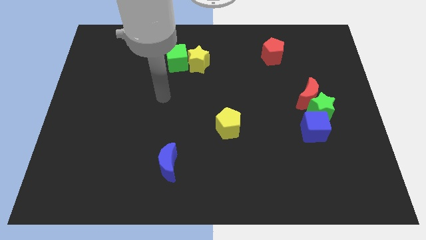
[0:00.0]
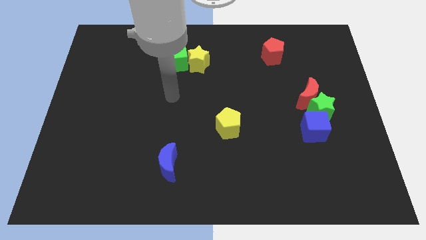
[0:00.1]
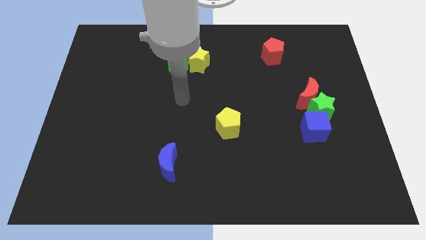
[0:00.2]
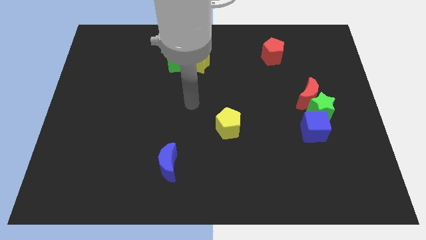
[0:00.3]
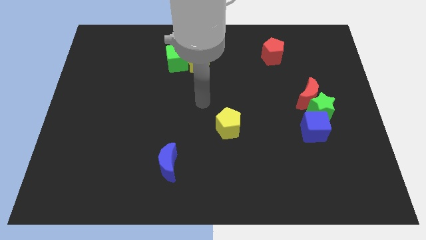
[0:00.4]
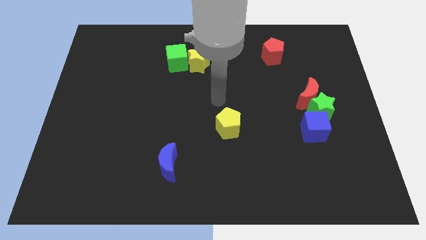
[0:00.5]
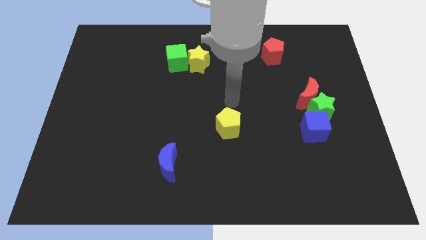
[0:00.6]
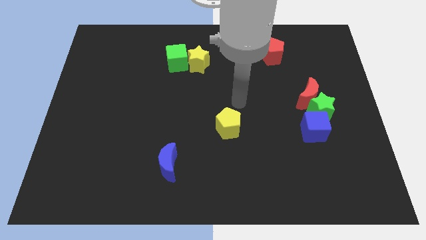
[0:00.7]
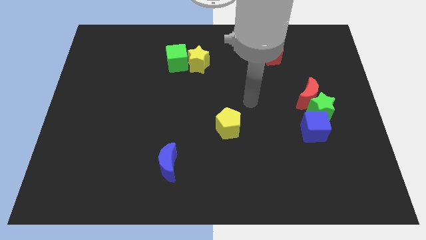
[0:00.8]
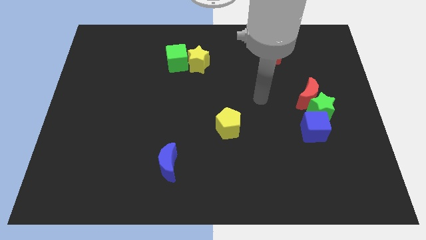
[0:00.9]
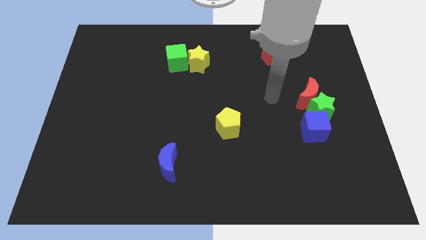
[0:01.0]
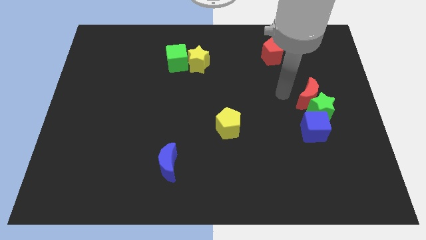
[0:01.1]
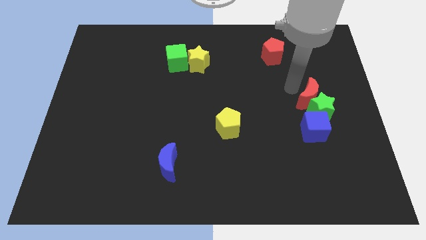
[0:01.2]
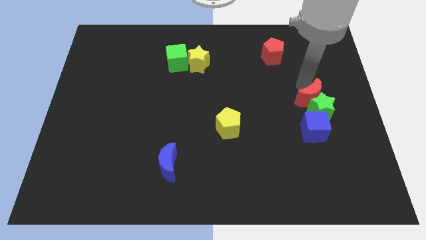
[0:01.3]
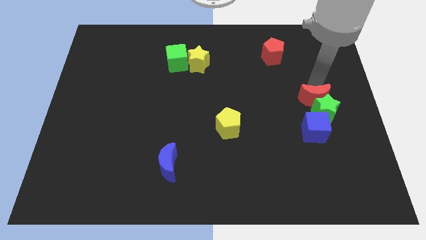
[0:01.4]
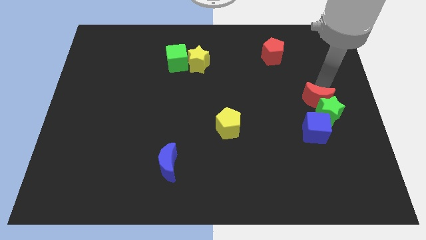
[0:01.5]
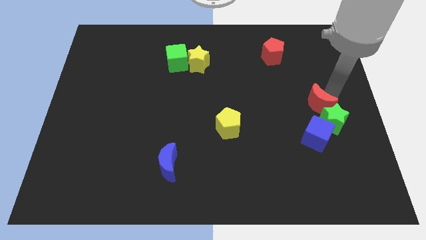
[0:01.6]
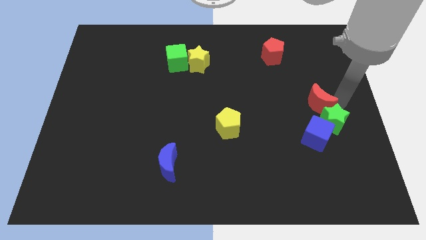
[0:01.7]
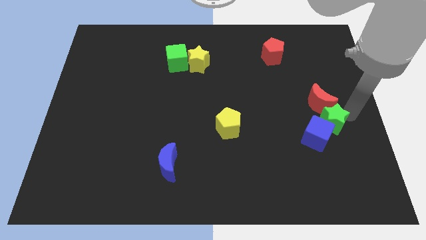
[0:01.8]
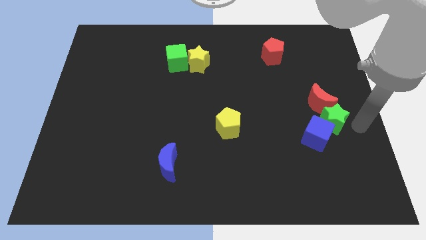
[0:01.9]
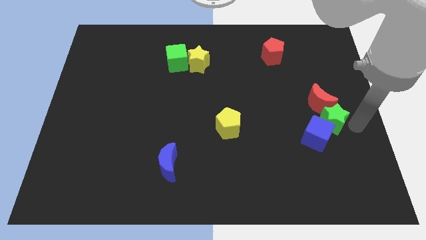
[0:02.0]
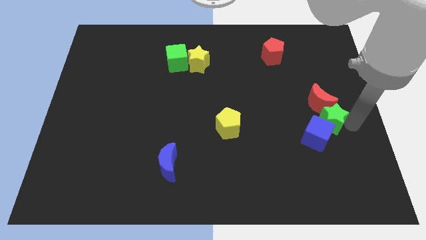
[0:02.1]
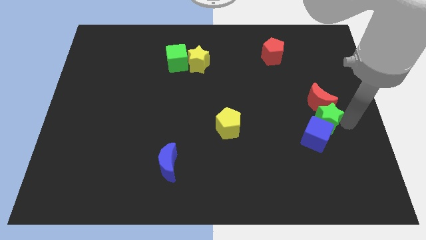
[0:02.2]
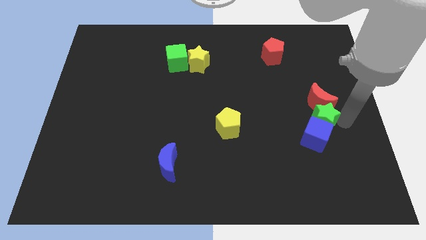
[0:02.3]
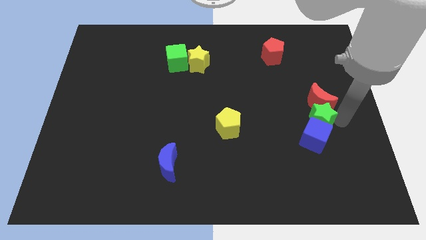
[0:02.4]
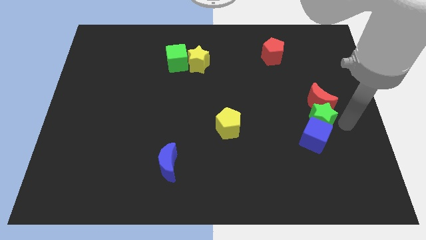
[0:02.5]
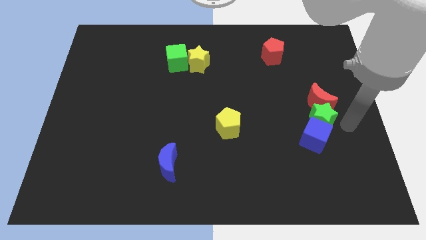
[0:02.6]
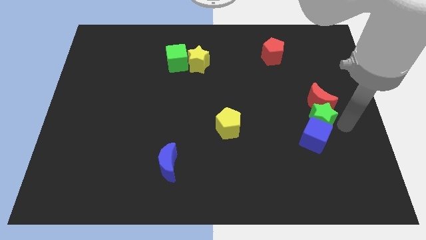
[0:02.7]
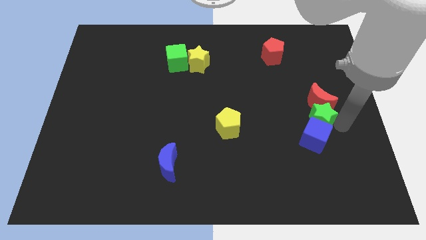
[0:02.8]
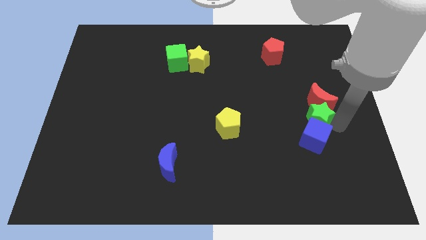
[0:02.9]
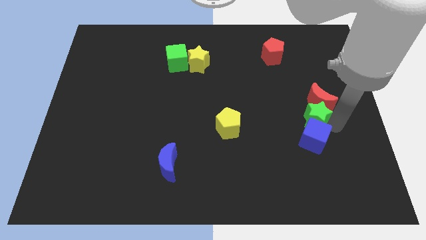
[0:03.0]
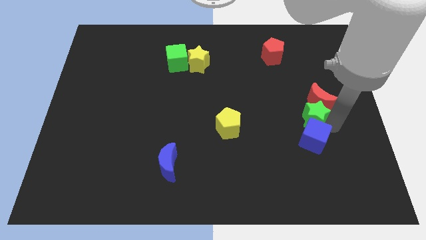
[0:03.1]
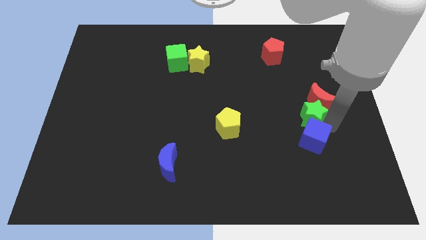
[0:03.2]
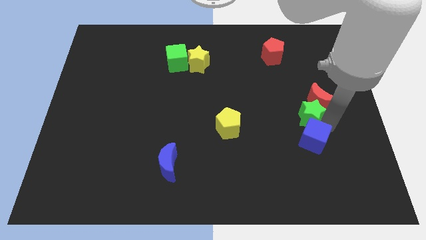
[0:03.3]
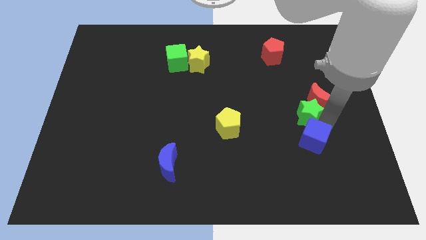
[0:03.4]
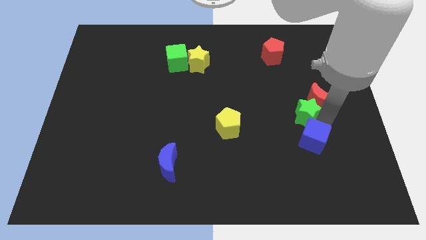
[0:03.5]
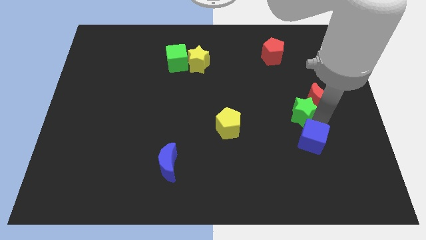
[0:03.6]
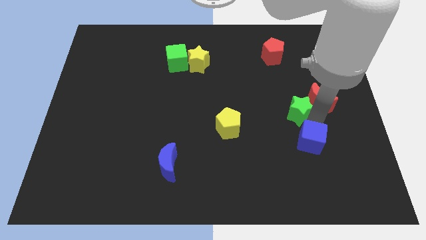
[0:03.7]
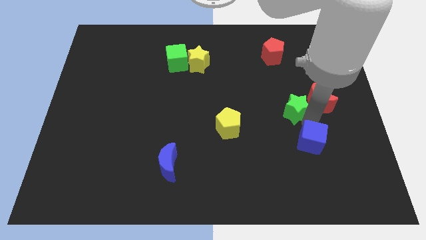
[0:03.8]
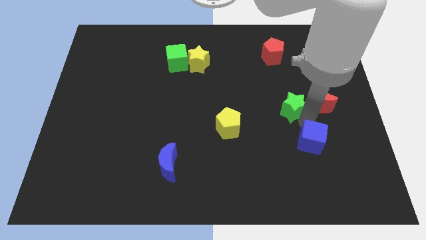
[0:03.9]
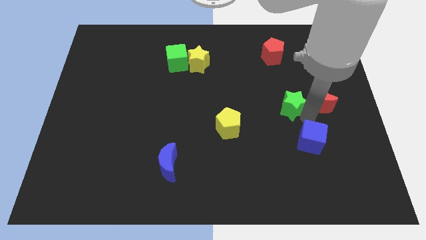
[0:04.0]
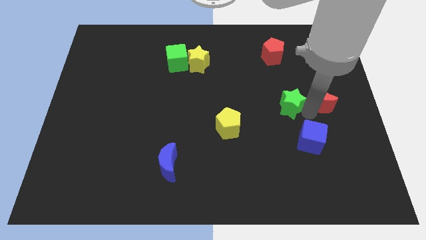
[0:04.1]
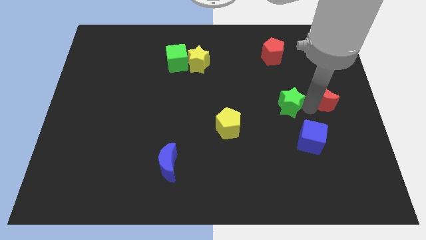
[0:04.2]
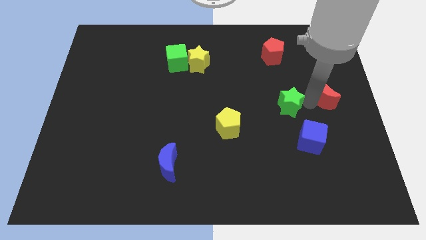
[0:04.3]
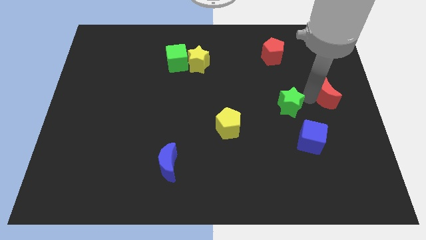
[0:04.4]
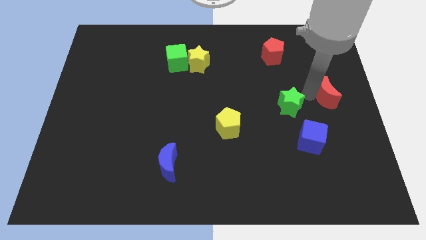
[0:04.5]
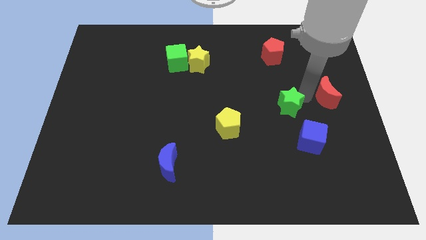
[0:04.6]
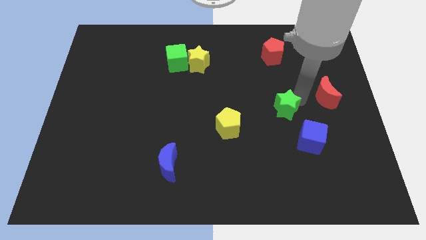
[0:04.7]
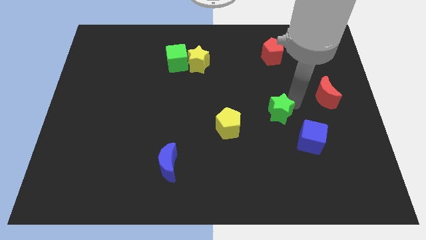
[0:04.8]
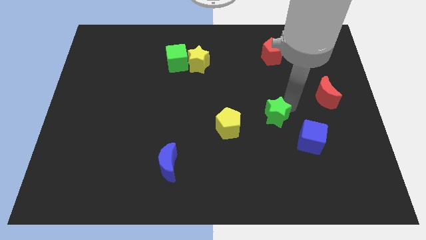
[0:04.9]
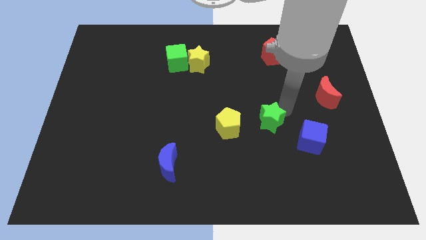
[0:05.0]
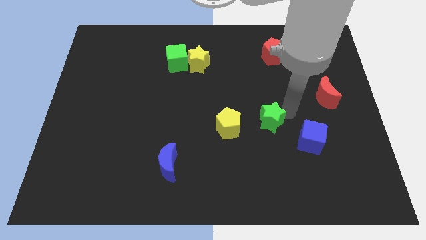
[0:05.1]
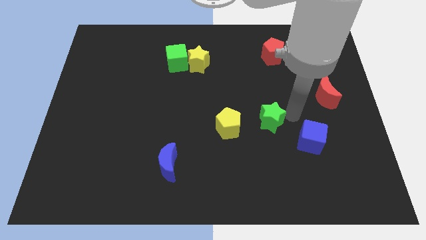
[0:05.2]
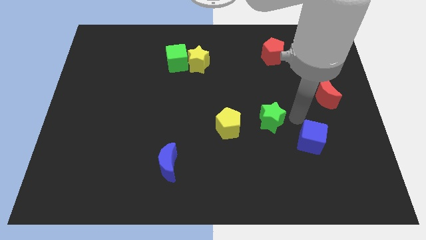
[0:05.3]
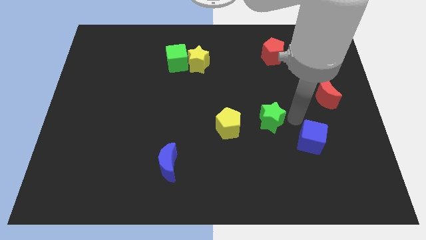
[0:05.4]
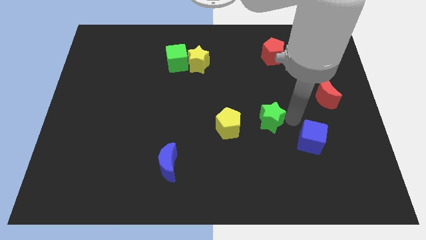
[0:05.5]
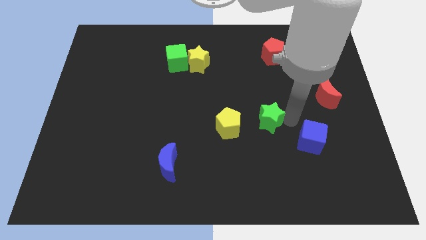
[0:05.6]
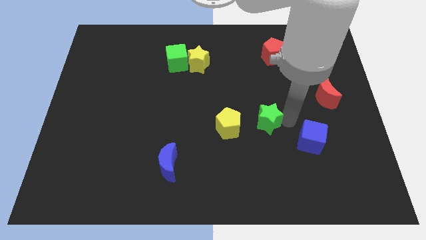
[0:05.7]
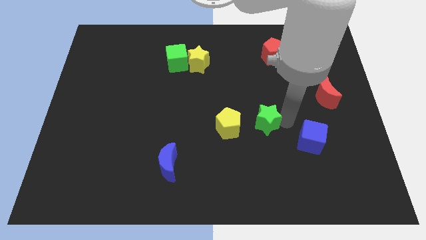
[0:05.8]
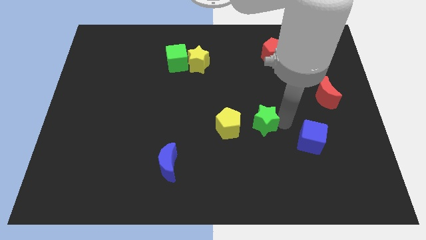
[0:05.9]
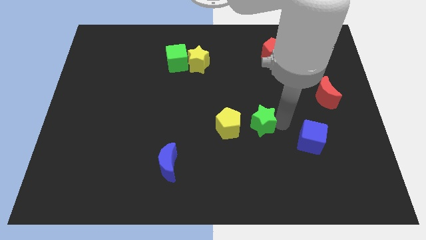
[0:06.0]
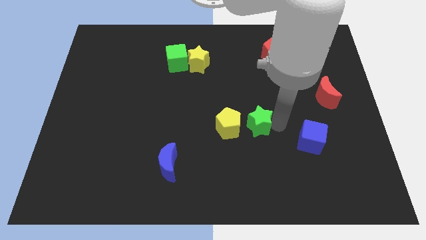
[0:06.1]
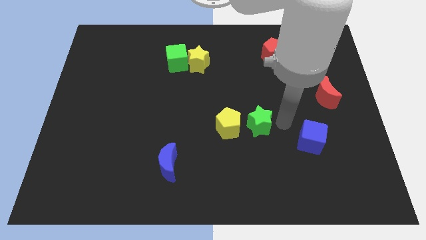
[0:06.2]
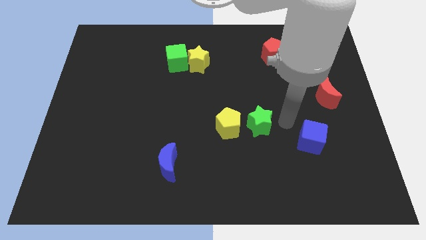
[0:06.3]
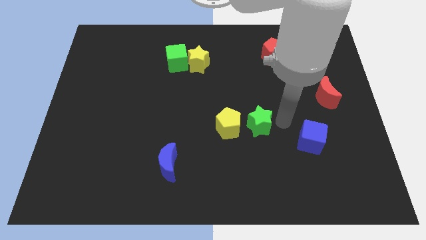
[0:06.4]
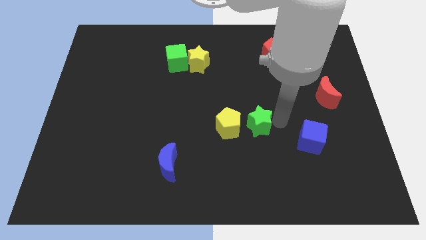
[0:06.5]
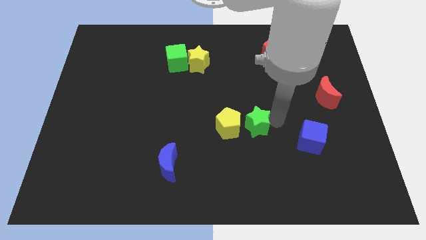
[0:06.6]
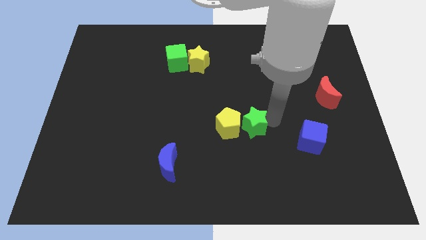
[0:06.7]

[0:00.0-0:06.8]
slide the green star next to the yellow pentagon

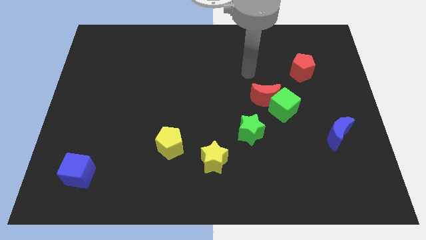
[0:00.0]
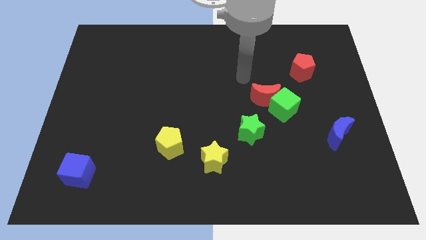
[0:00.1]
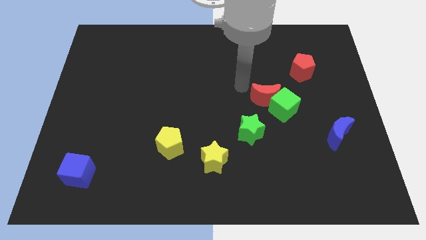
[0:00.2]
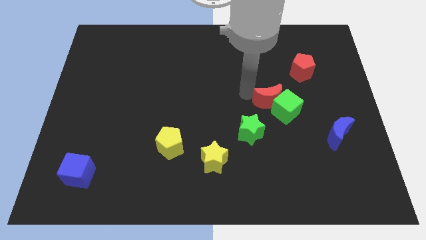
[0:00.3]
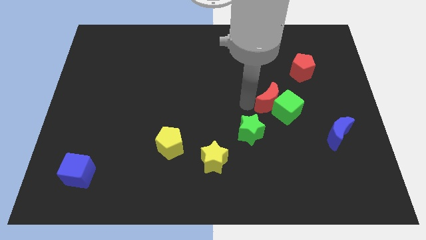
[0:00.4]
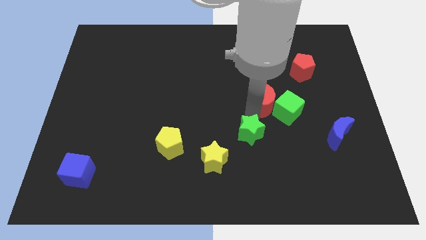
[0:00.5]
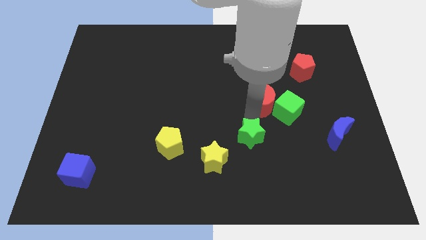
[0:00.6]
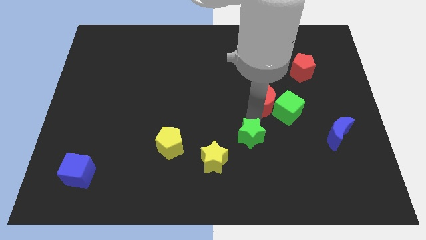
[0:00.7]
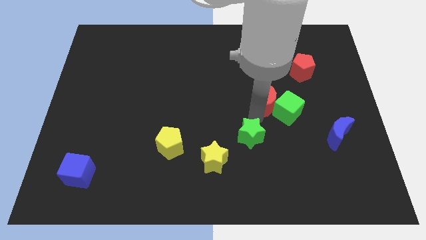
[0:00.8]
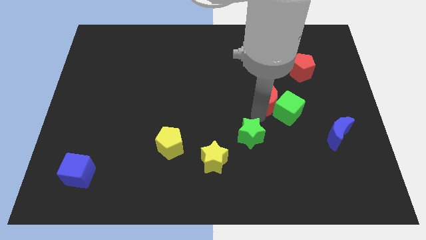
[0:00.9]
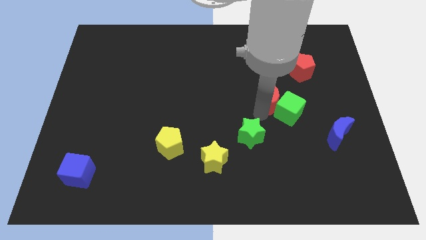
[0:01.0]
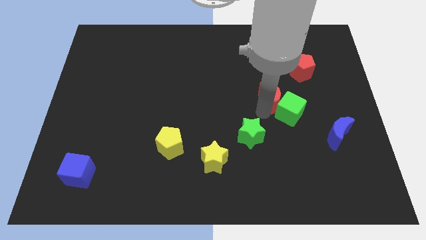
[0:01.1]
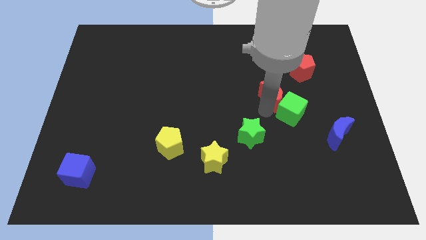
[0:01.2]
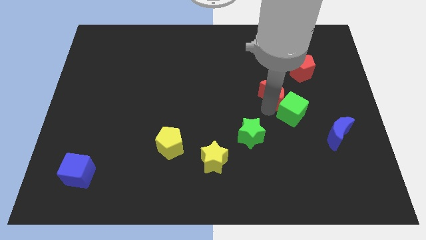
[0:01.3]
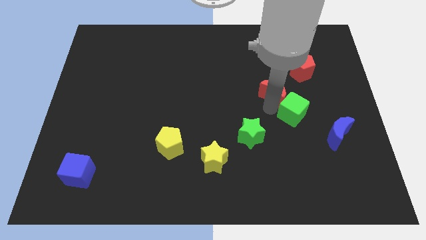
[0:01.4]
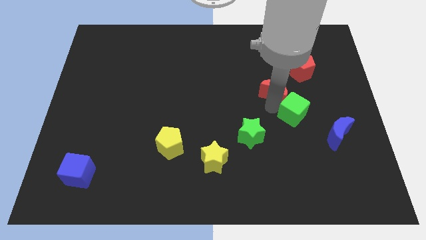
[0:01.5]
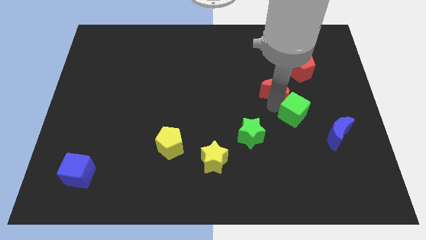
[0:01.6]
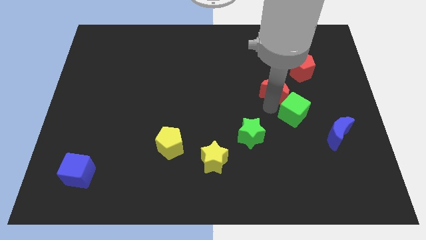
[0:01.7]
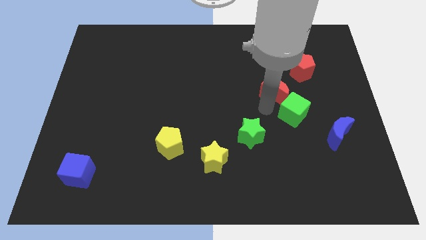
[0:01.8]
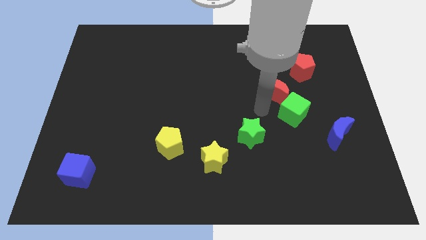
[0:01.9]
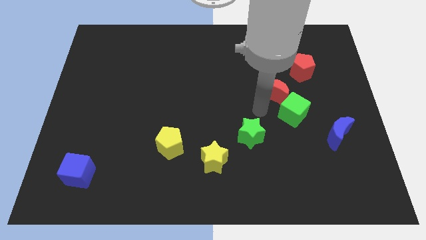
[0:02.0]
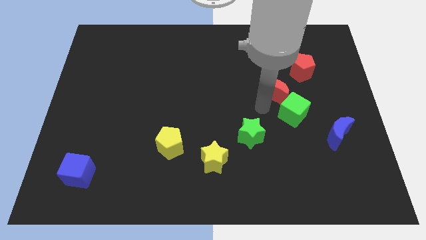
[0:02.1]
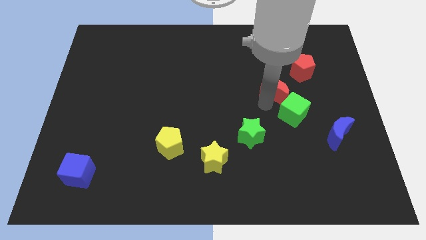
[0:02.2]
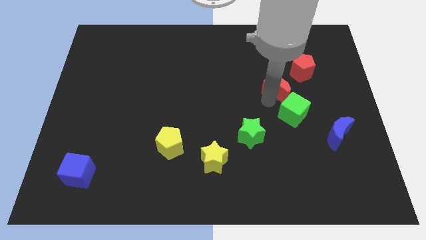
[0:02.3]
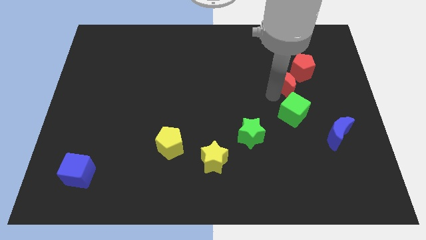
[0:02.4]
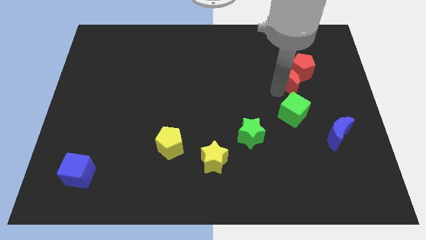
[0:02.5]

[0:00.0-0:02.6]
put the red moon to the red pentagon
